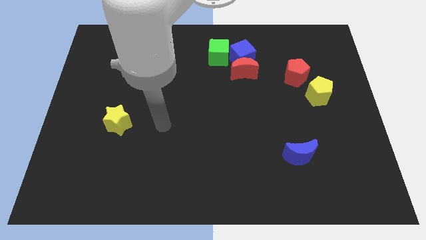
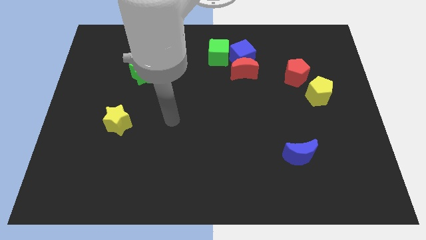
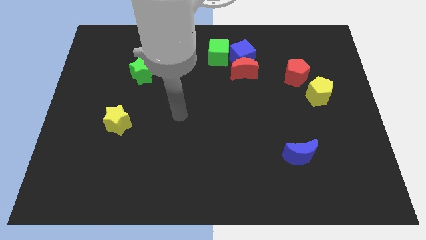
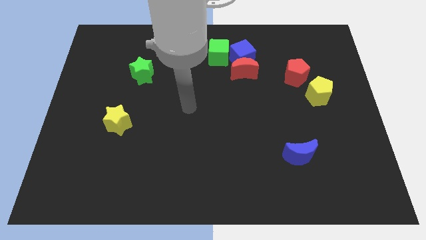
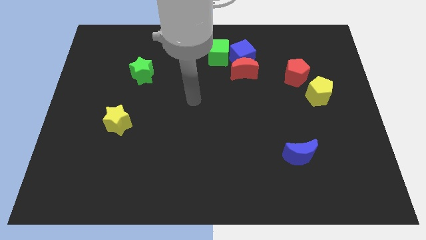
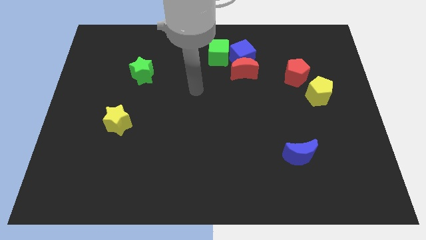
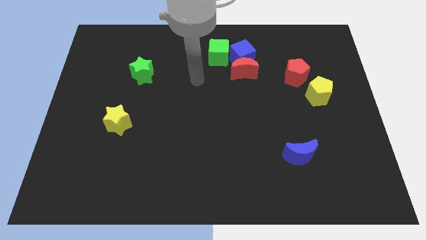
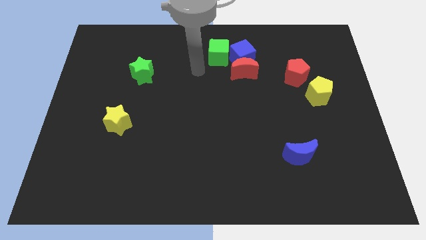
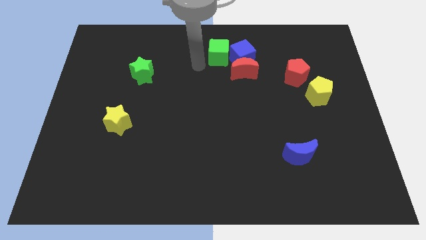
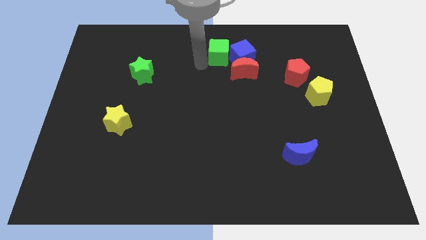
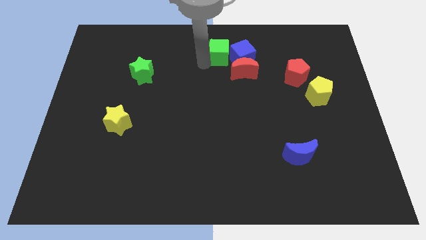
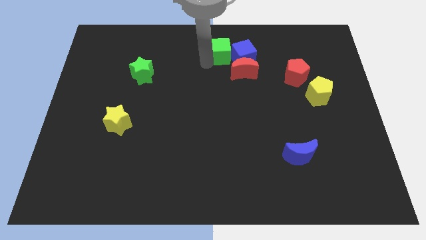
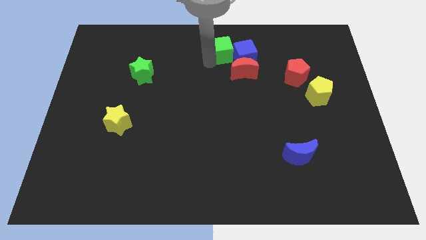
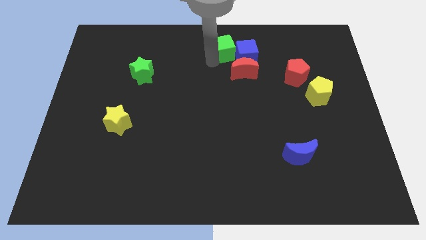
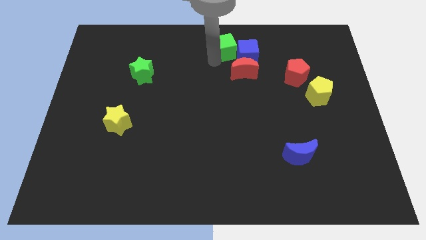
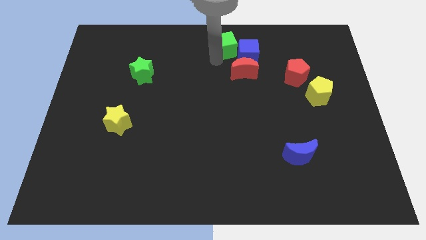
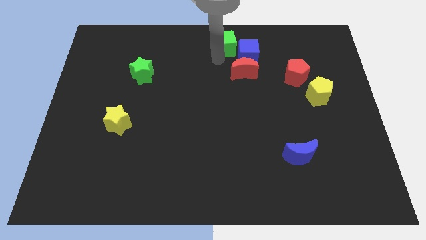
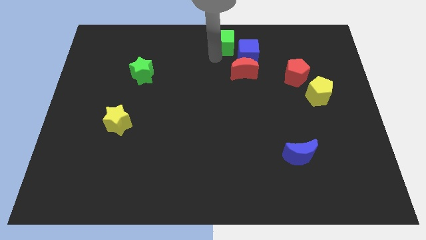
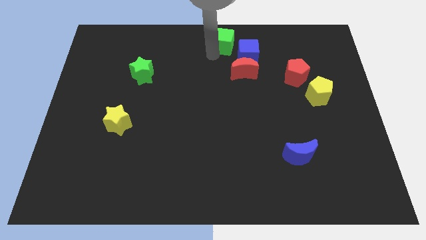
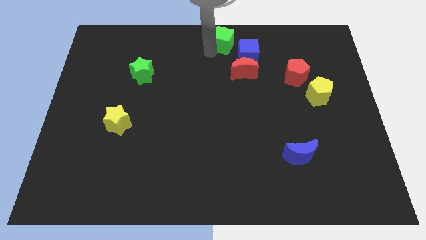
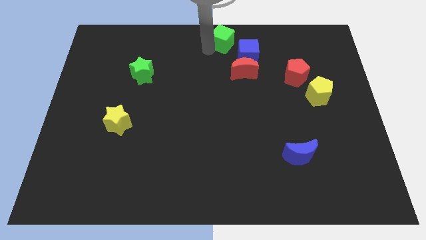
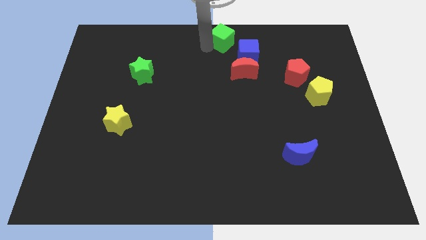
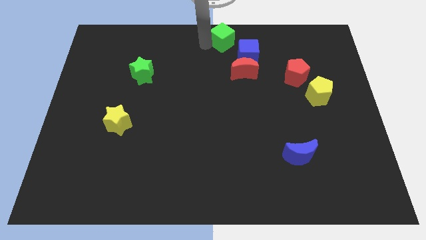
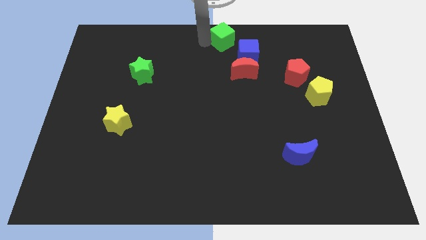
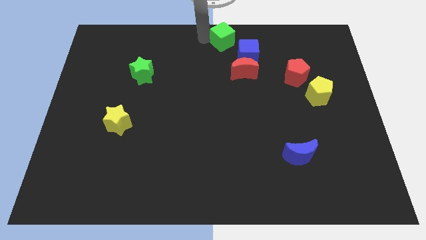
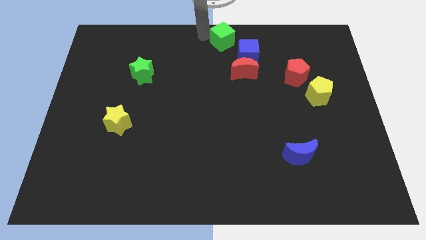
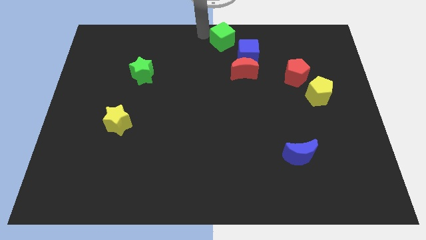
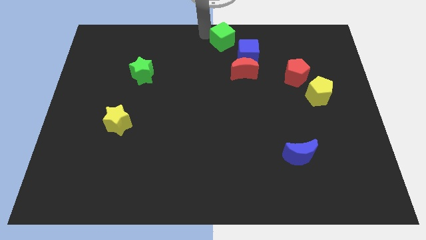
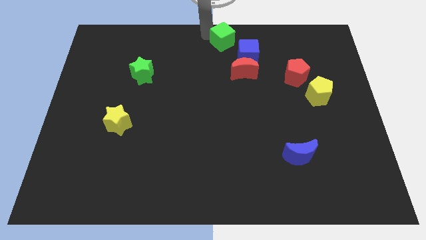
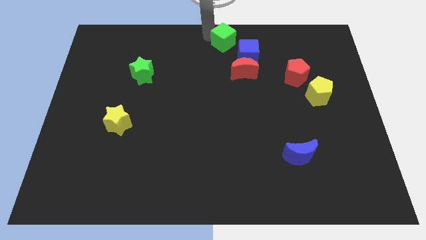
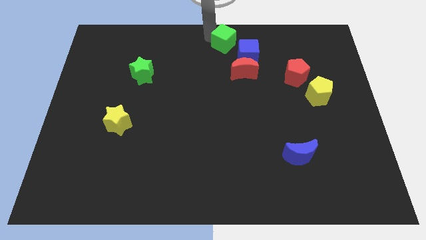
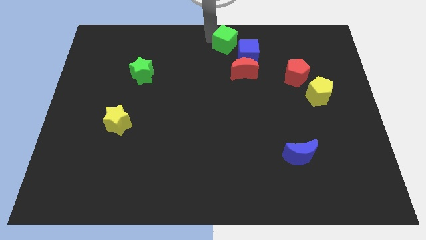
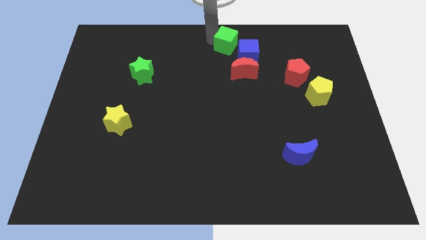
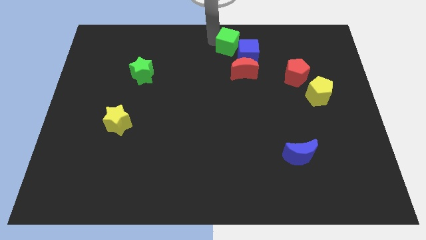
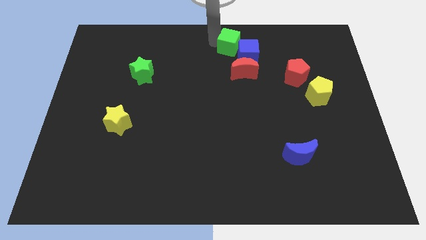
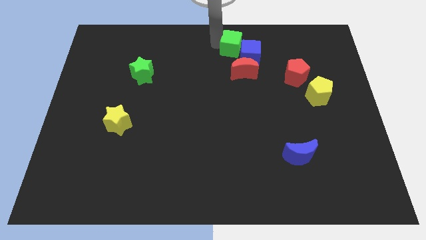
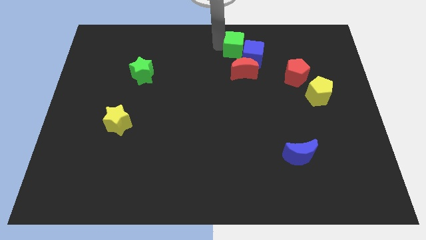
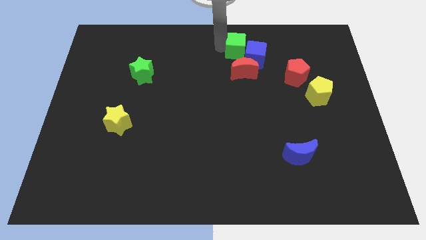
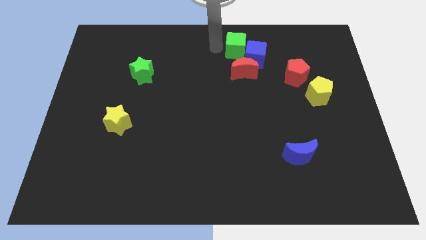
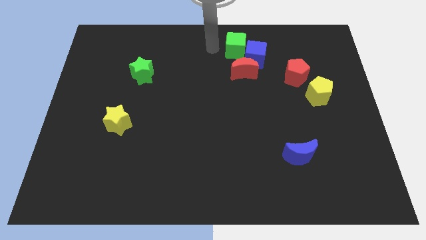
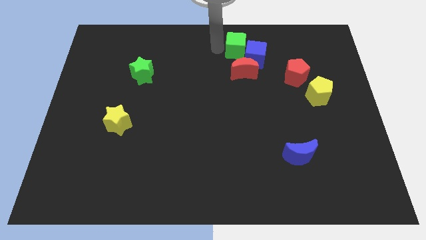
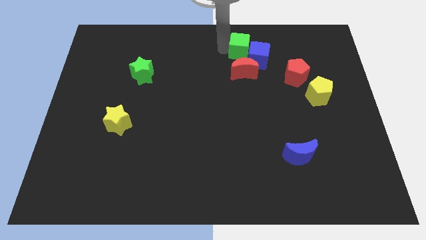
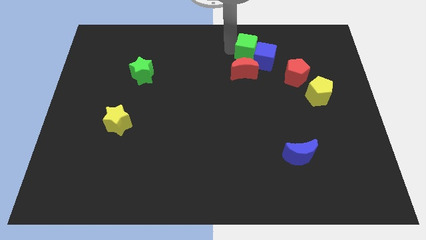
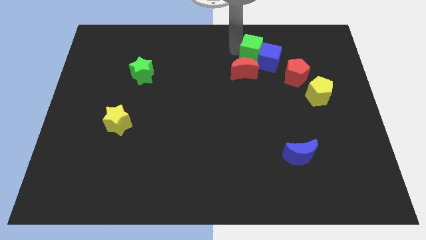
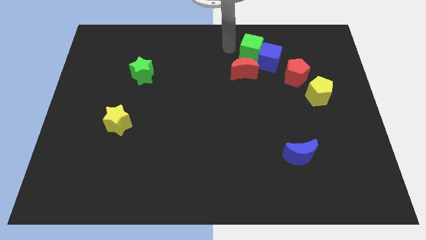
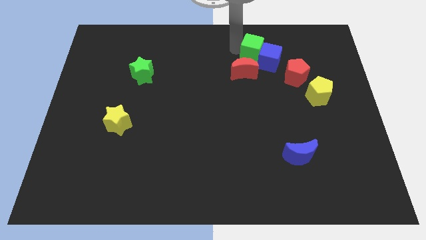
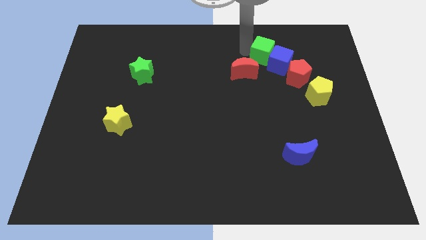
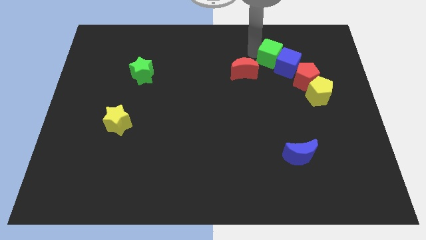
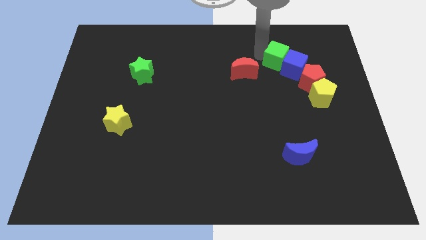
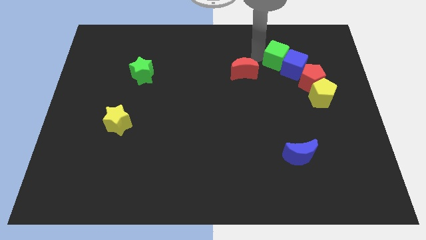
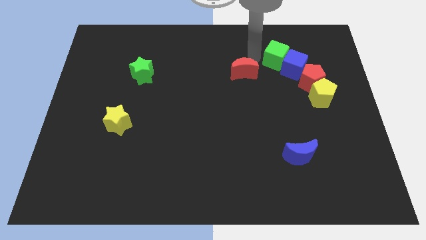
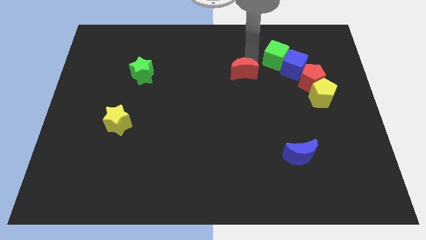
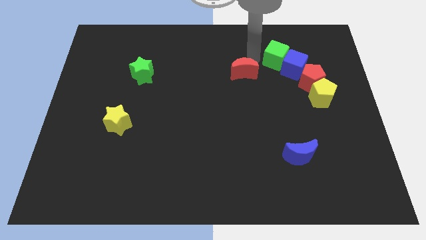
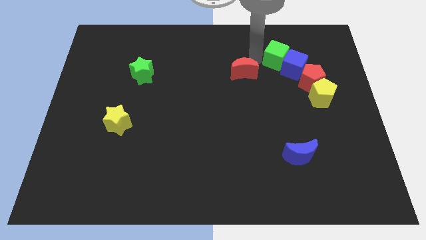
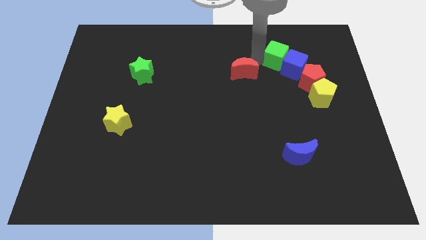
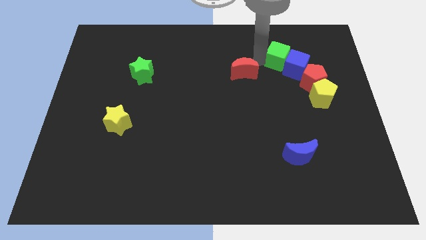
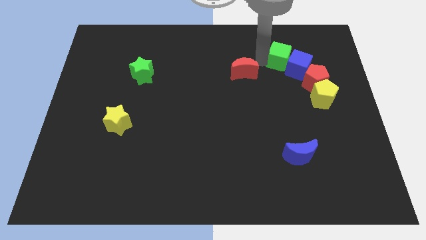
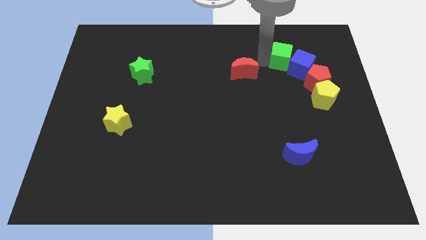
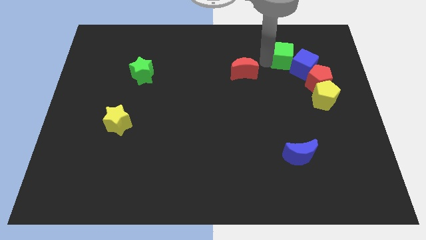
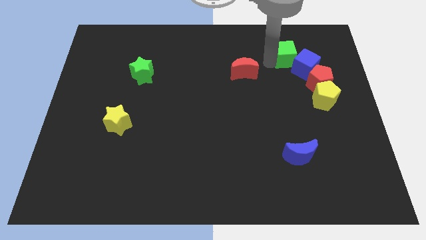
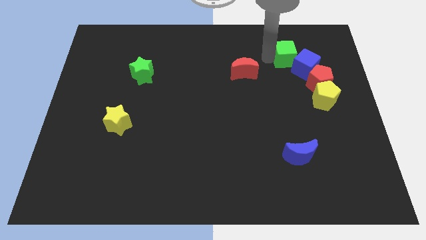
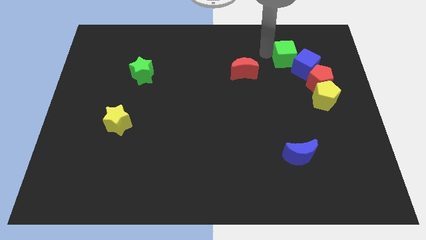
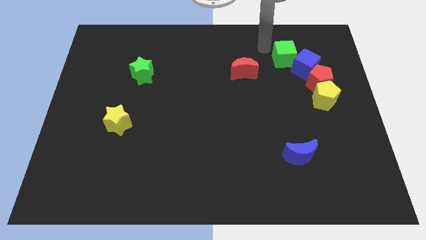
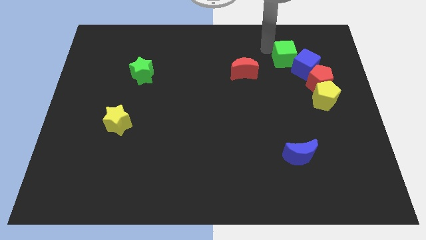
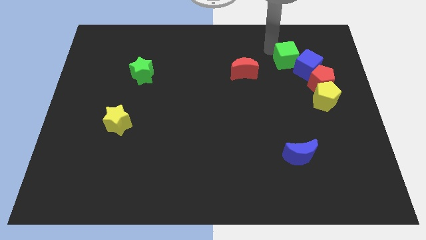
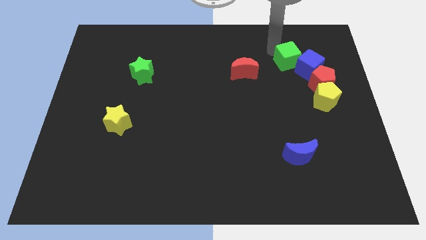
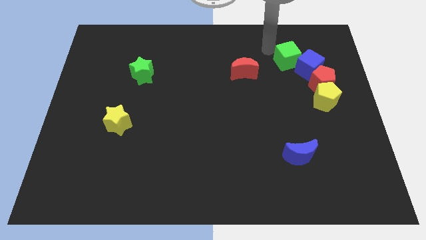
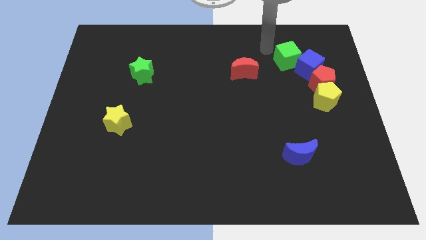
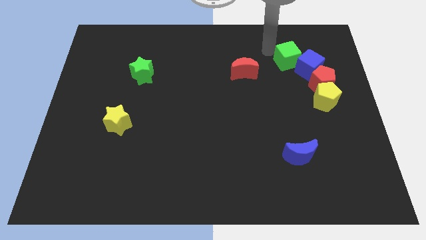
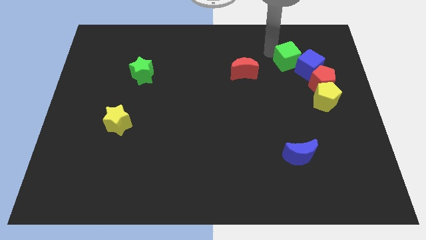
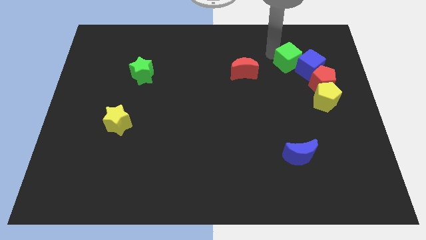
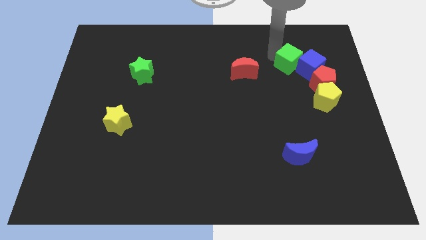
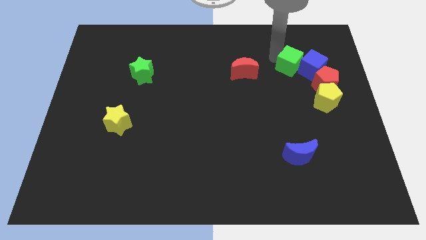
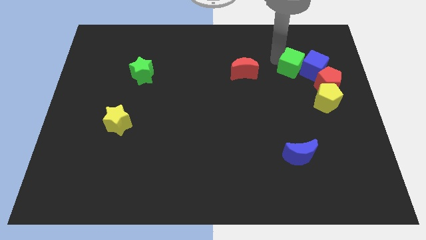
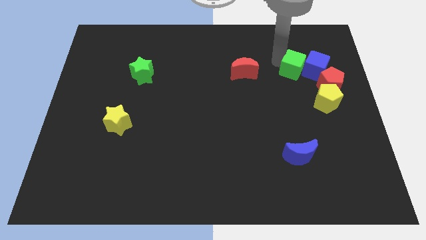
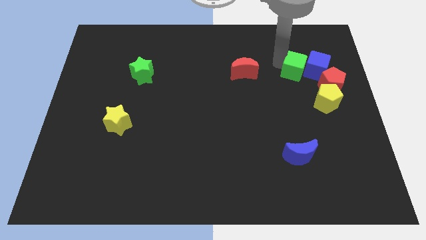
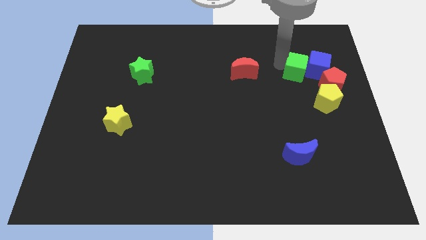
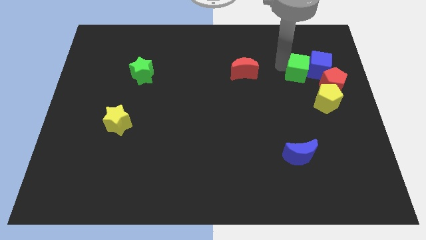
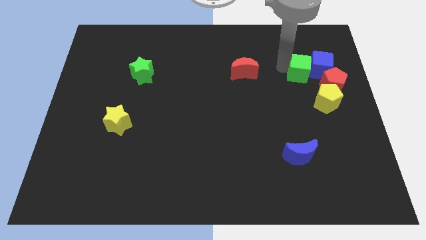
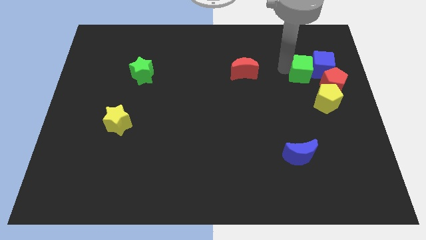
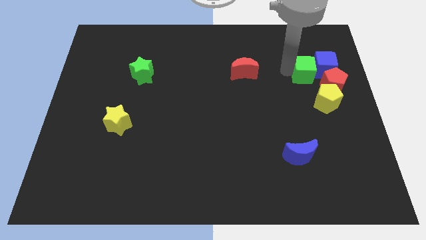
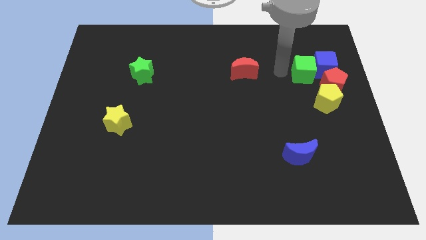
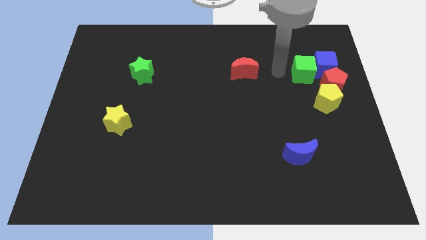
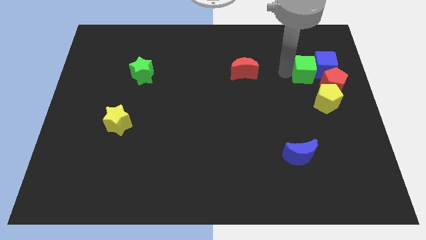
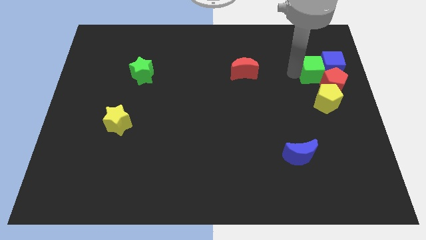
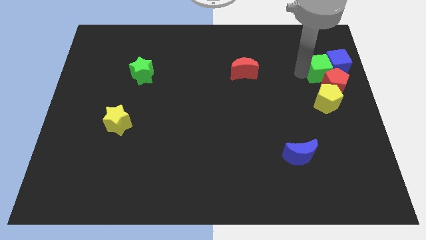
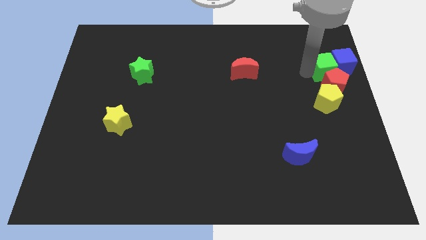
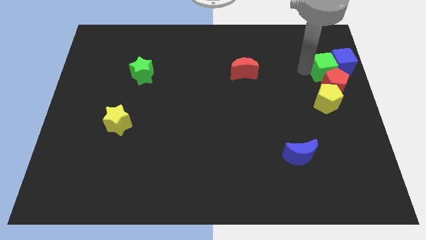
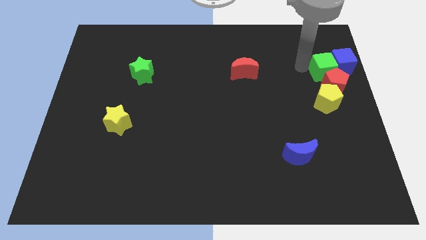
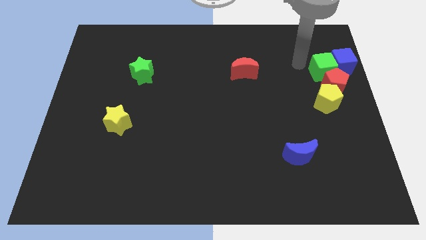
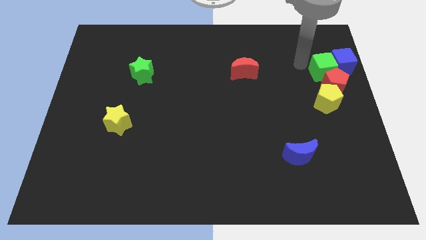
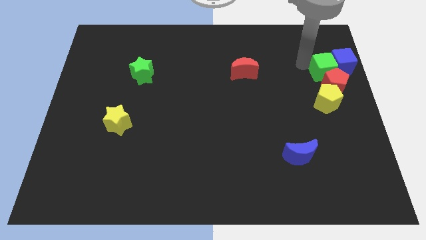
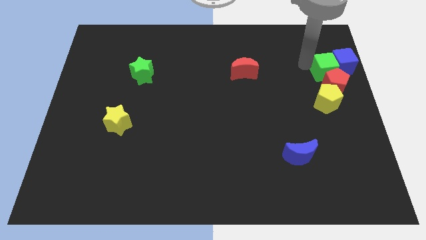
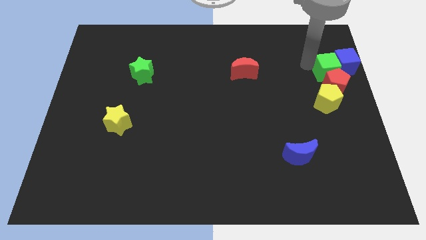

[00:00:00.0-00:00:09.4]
put the green cube to the center right
